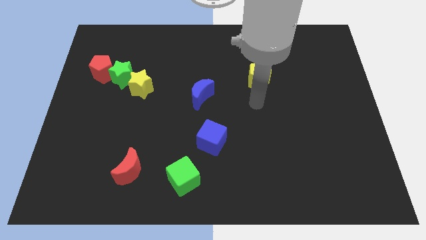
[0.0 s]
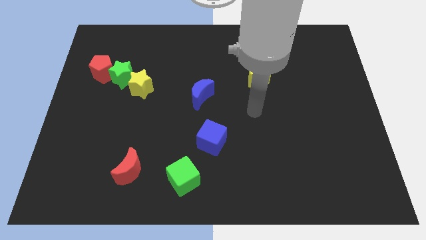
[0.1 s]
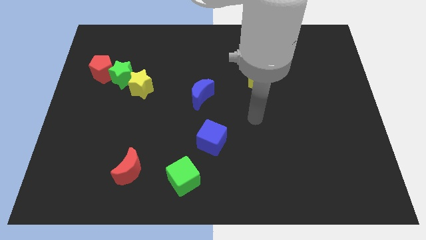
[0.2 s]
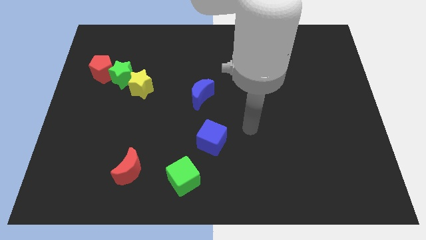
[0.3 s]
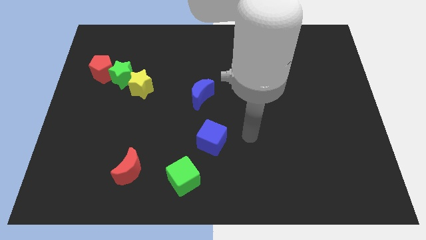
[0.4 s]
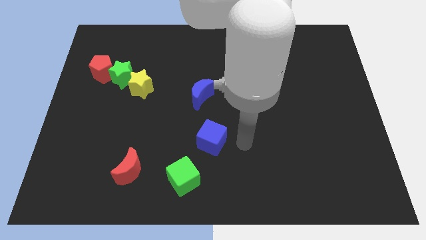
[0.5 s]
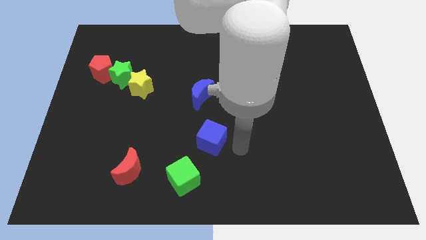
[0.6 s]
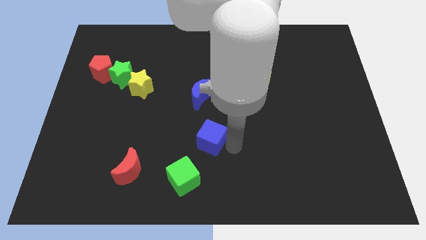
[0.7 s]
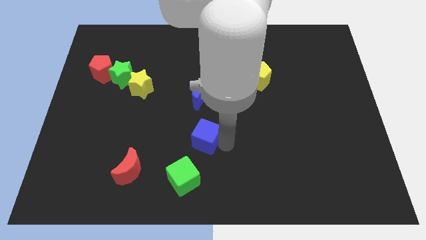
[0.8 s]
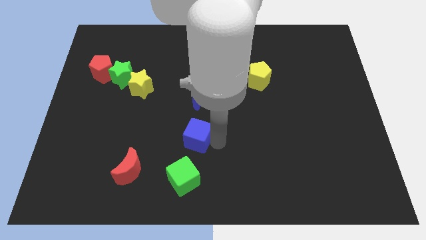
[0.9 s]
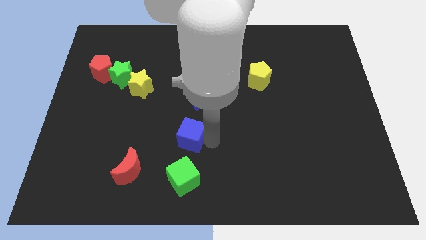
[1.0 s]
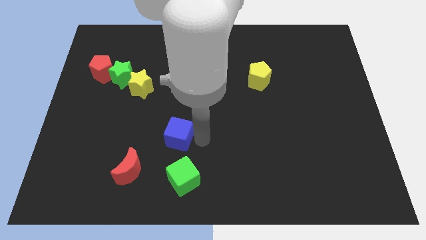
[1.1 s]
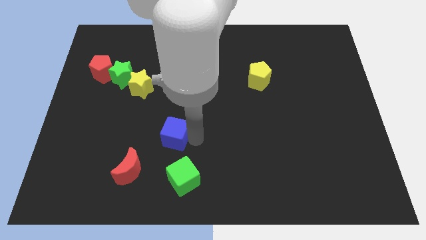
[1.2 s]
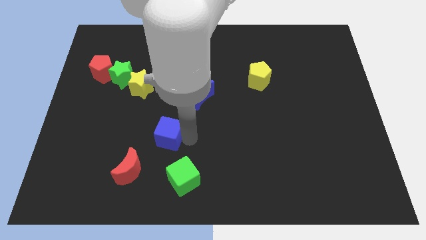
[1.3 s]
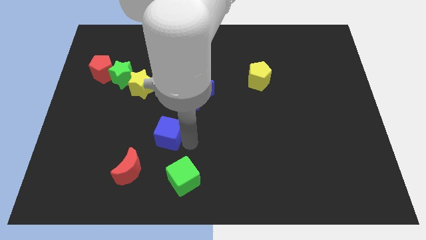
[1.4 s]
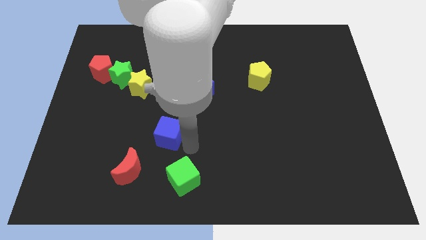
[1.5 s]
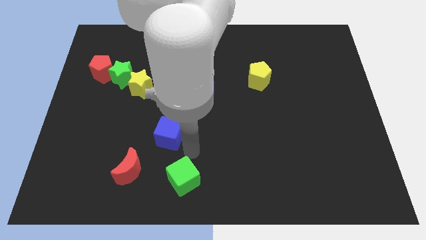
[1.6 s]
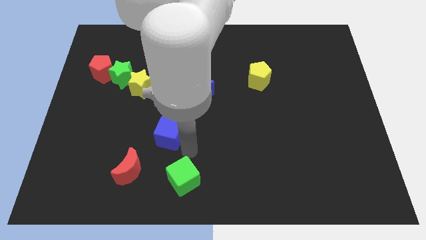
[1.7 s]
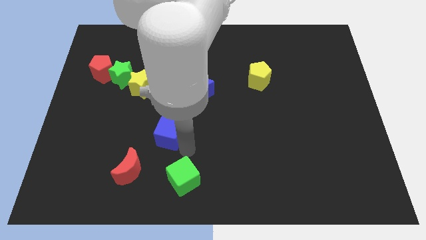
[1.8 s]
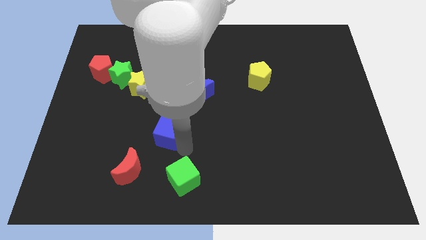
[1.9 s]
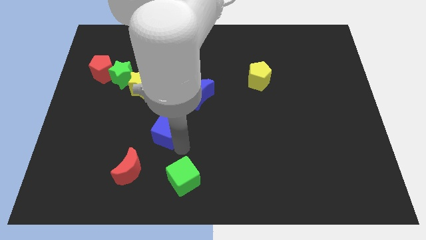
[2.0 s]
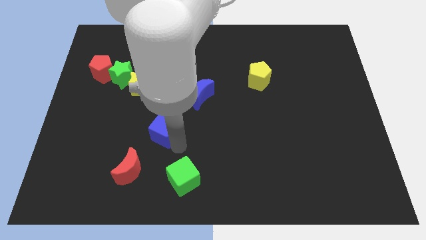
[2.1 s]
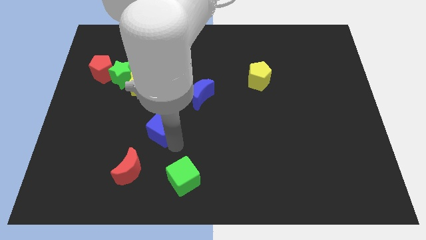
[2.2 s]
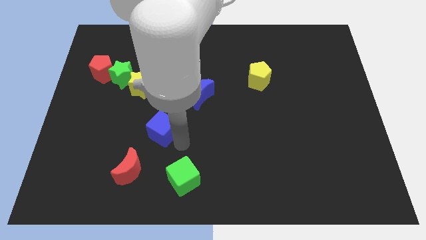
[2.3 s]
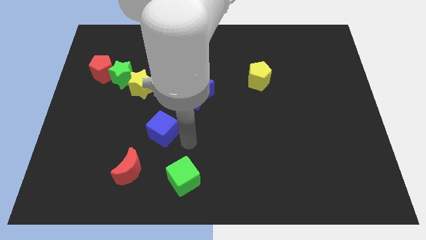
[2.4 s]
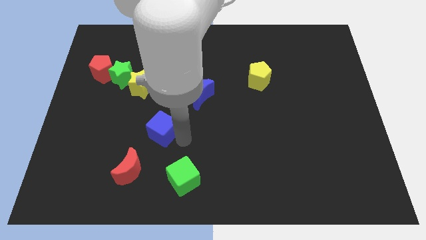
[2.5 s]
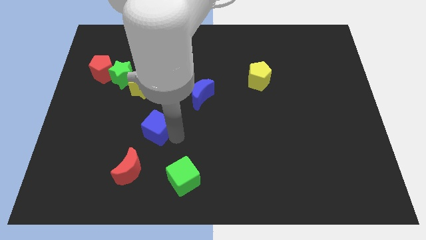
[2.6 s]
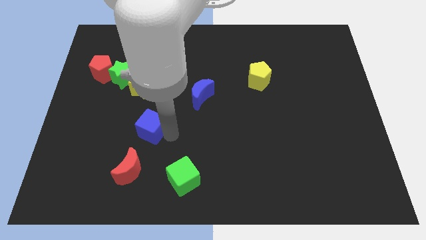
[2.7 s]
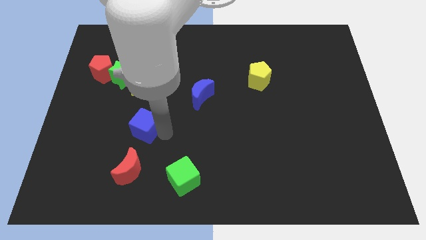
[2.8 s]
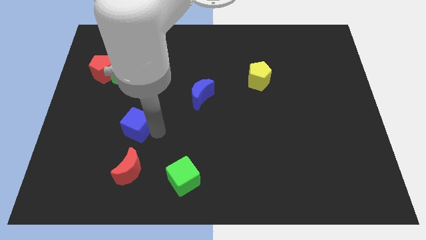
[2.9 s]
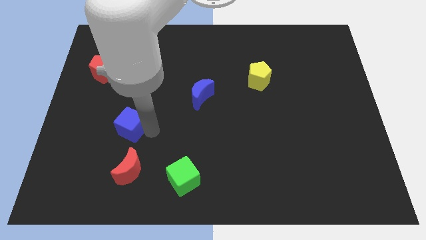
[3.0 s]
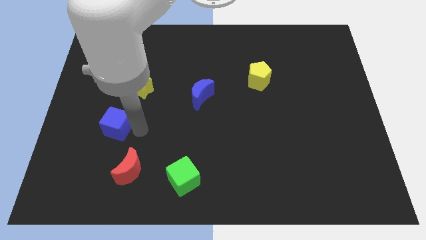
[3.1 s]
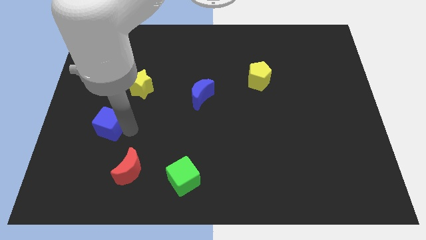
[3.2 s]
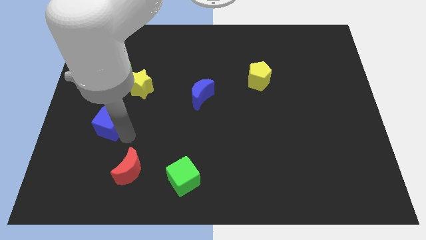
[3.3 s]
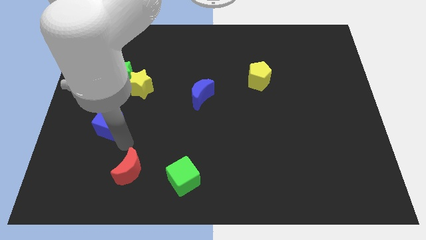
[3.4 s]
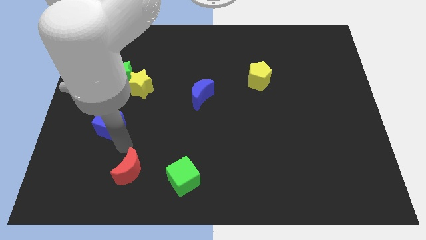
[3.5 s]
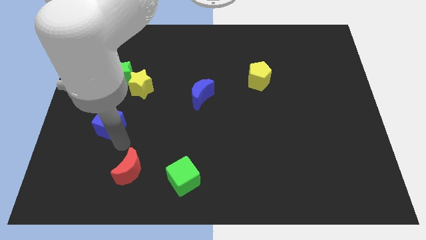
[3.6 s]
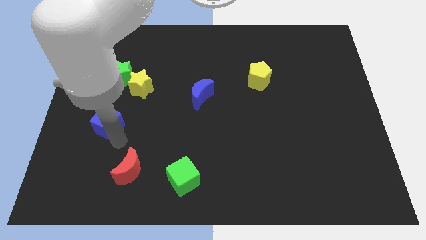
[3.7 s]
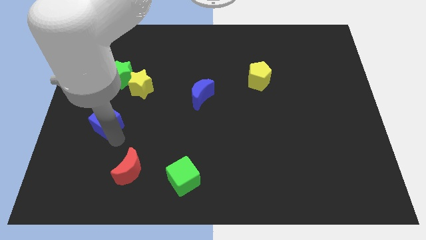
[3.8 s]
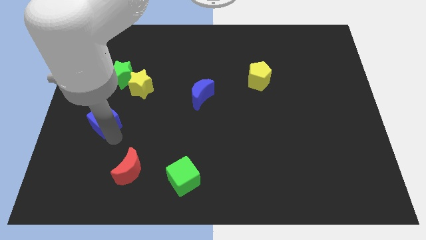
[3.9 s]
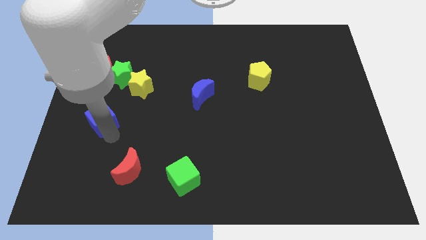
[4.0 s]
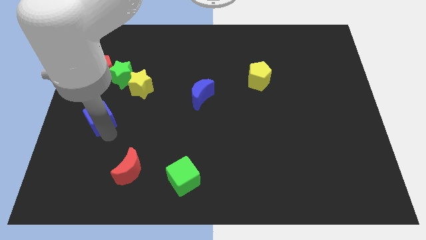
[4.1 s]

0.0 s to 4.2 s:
put the blue cube to the bottom side of the red pentagon

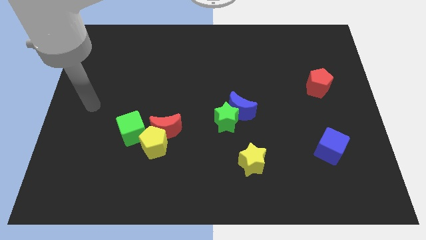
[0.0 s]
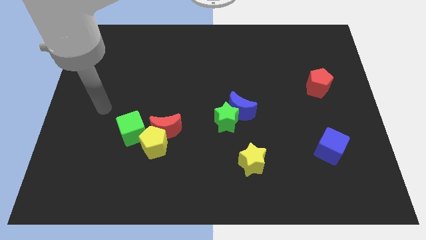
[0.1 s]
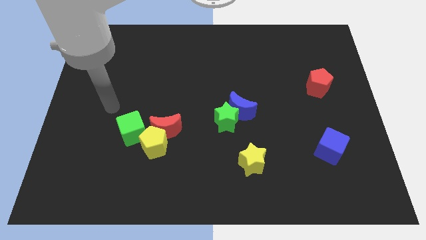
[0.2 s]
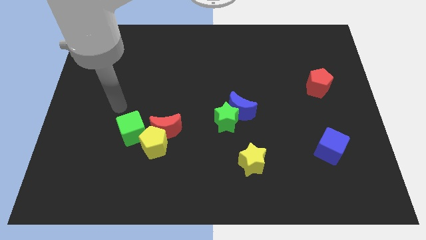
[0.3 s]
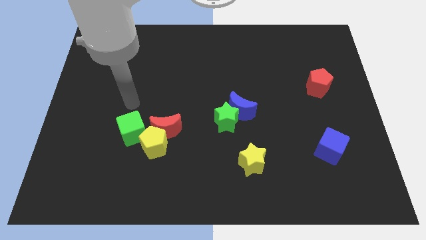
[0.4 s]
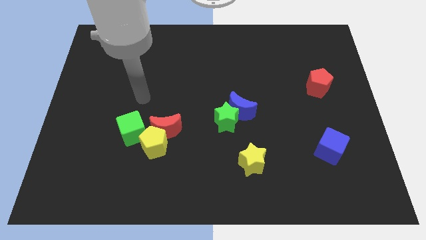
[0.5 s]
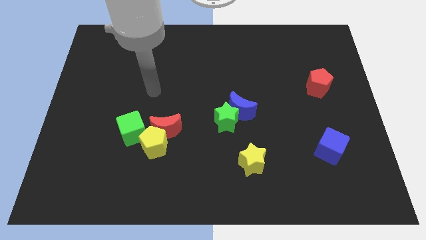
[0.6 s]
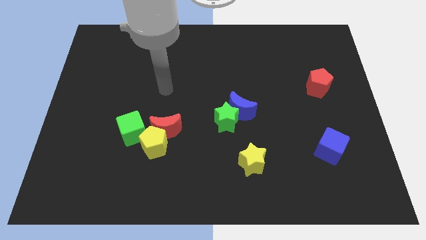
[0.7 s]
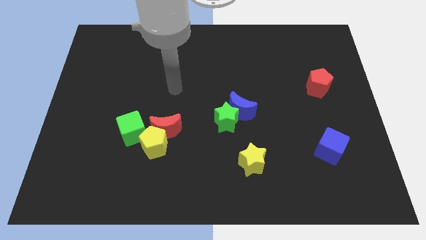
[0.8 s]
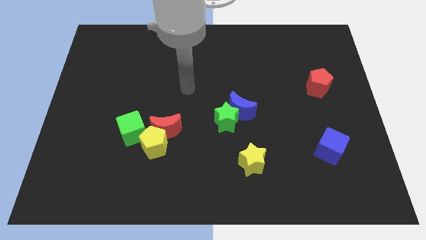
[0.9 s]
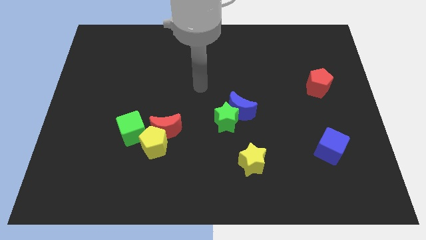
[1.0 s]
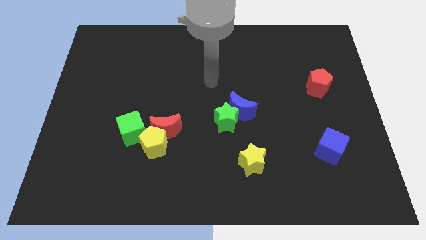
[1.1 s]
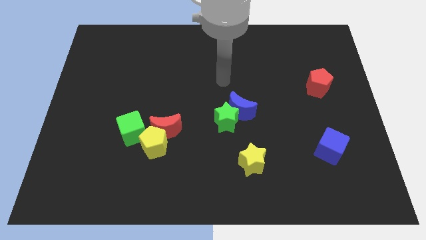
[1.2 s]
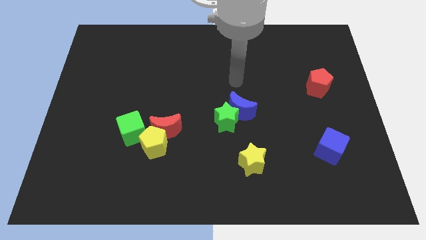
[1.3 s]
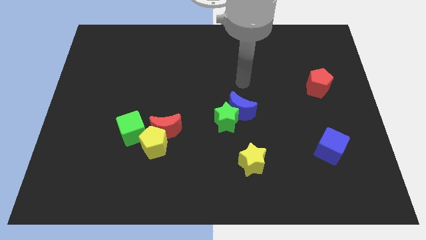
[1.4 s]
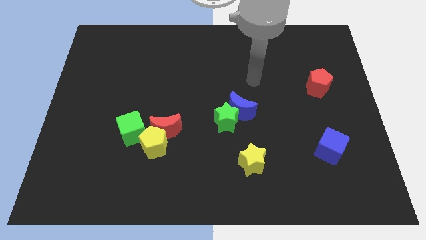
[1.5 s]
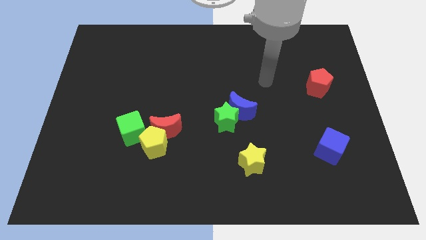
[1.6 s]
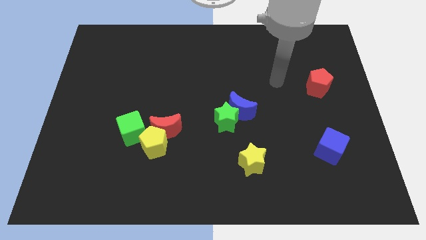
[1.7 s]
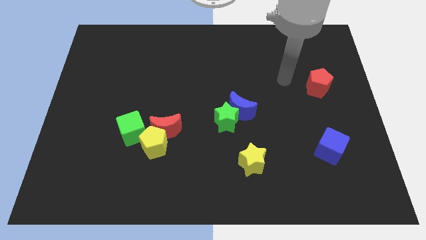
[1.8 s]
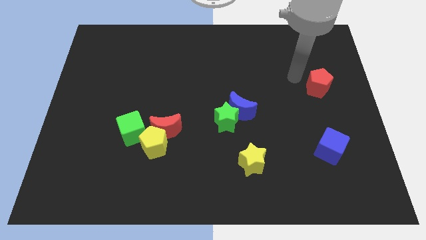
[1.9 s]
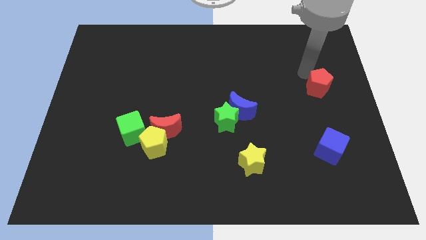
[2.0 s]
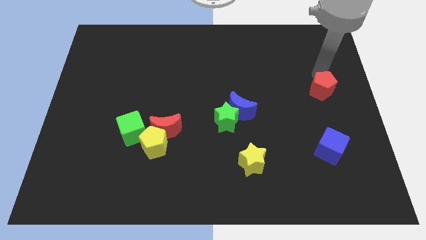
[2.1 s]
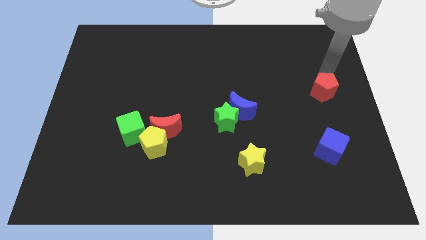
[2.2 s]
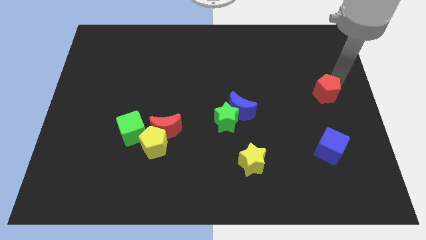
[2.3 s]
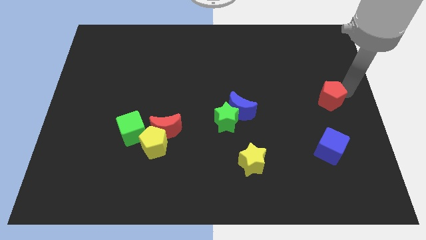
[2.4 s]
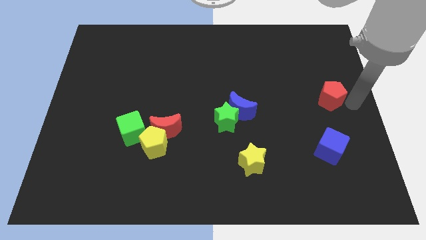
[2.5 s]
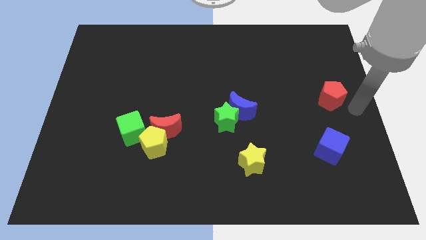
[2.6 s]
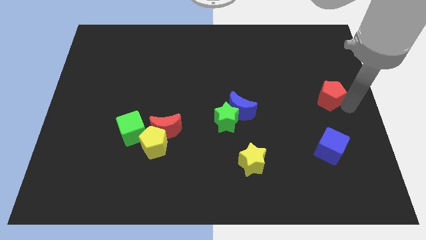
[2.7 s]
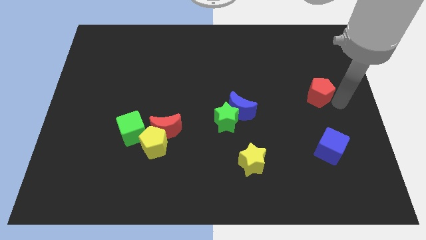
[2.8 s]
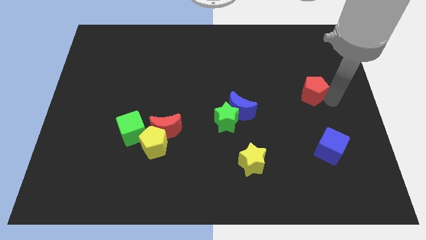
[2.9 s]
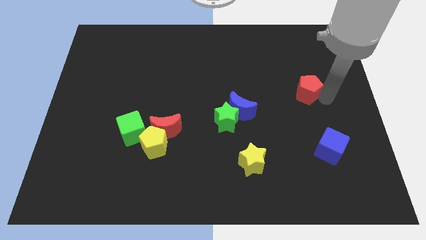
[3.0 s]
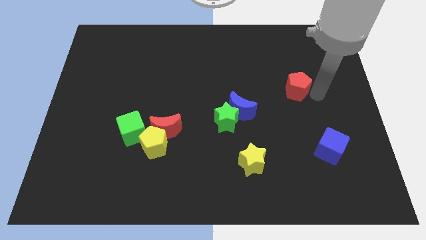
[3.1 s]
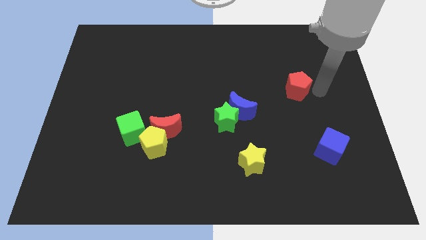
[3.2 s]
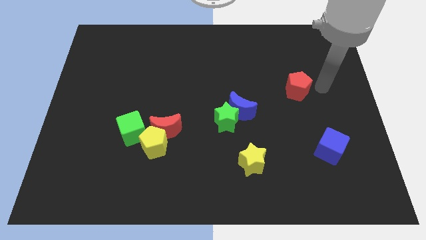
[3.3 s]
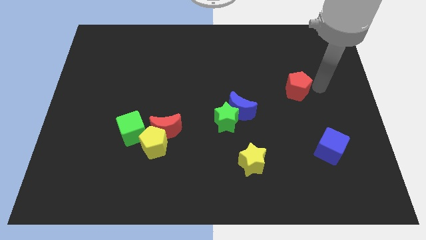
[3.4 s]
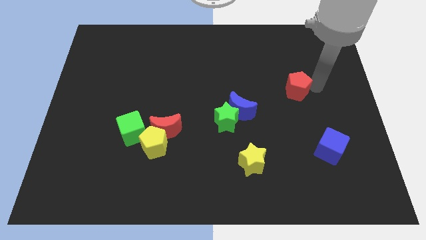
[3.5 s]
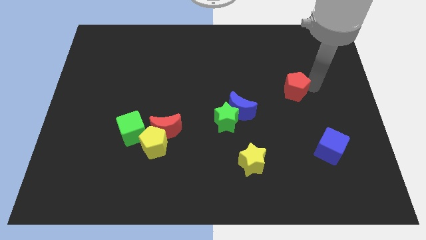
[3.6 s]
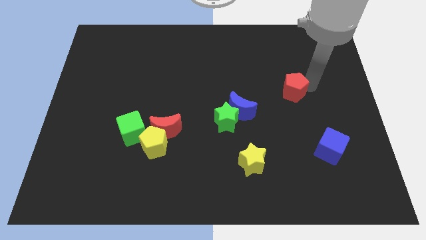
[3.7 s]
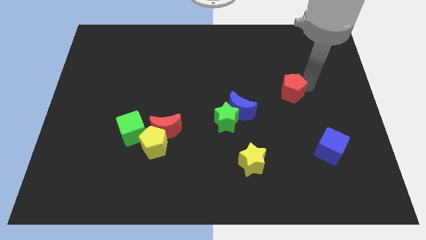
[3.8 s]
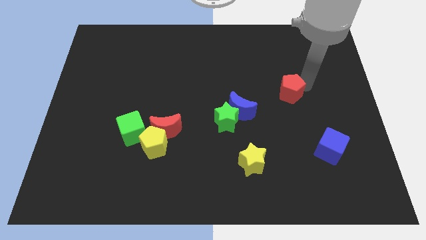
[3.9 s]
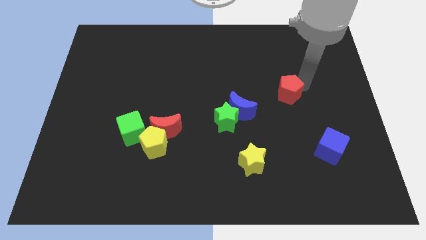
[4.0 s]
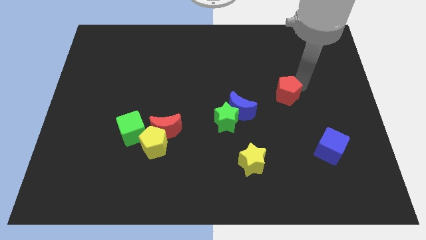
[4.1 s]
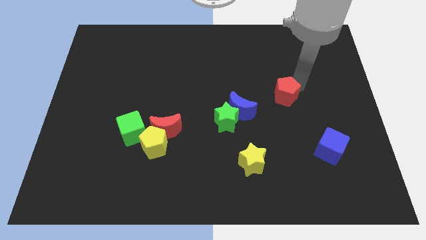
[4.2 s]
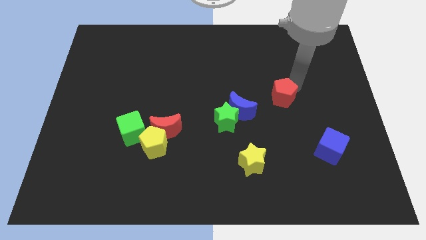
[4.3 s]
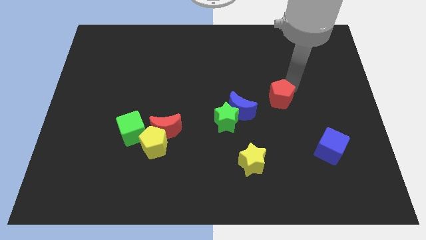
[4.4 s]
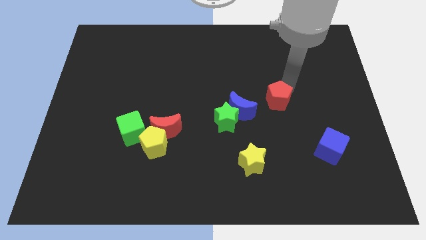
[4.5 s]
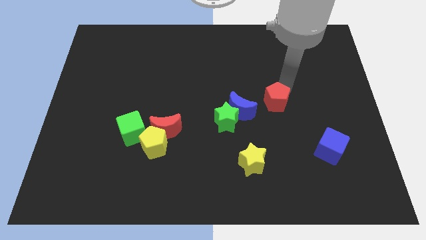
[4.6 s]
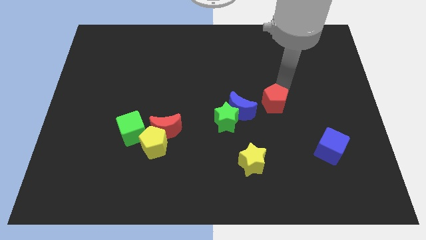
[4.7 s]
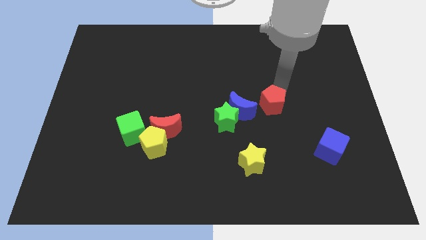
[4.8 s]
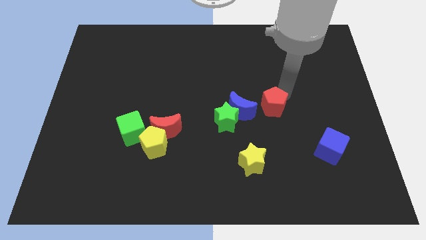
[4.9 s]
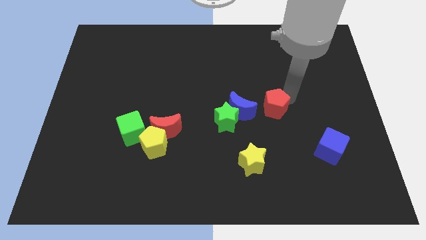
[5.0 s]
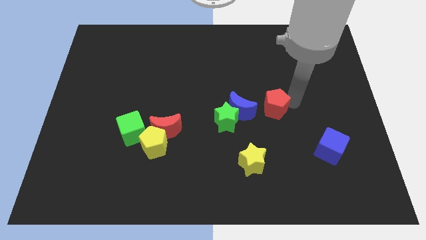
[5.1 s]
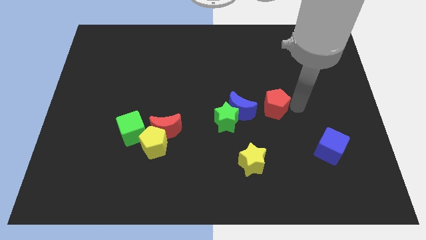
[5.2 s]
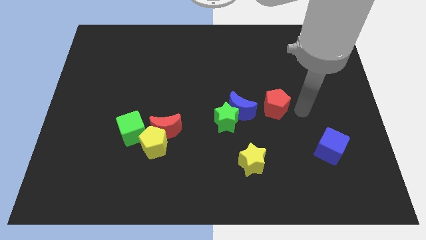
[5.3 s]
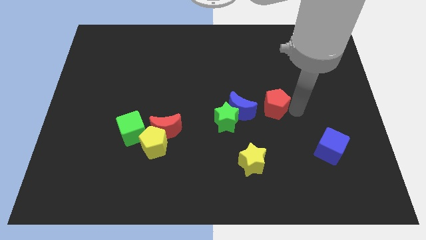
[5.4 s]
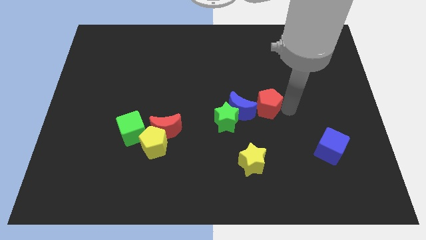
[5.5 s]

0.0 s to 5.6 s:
move the red pentagon to the top right of the green star
